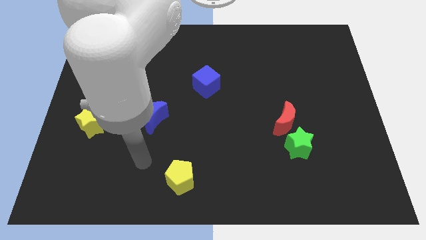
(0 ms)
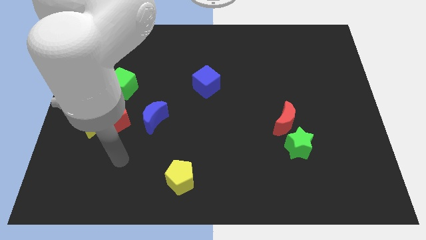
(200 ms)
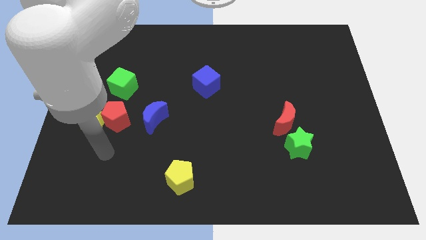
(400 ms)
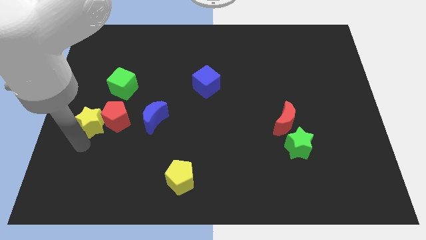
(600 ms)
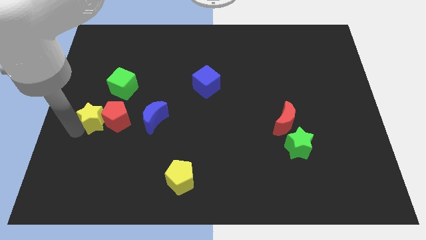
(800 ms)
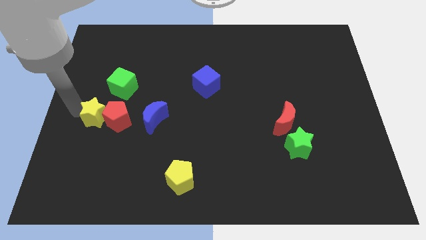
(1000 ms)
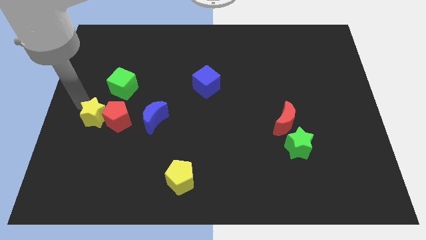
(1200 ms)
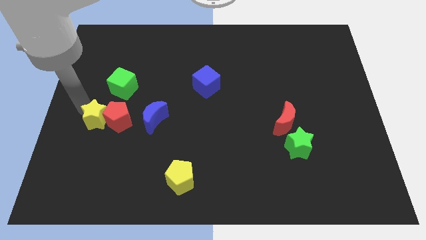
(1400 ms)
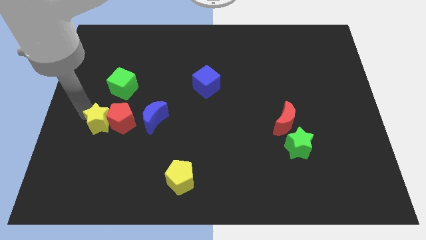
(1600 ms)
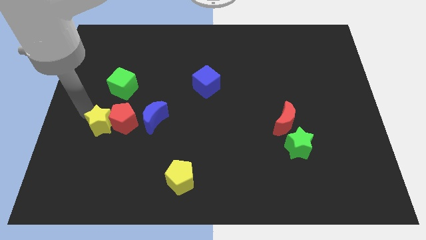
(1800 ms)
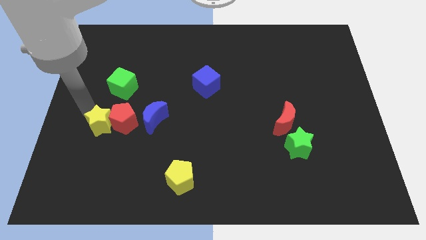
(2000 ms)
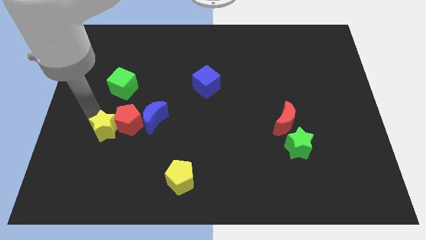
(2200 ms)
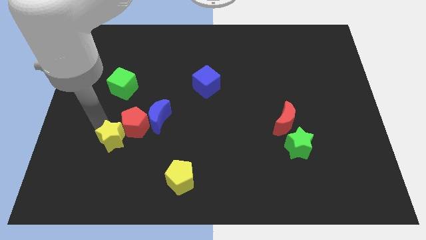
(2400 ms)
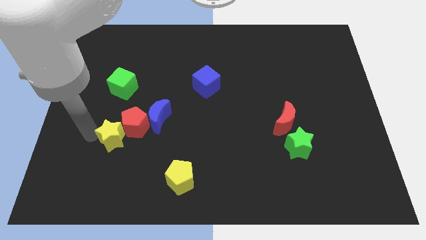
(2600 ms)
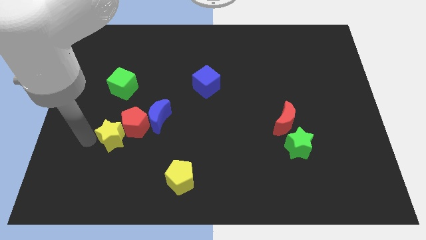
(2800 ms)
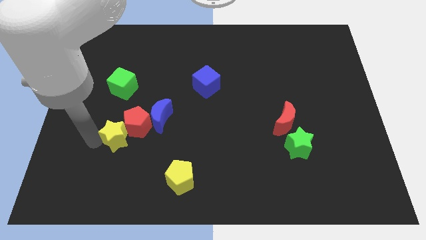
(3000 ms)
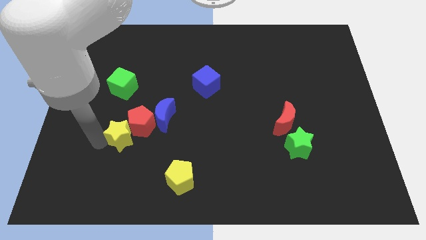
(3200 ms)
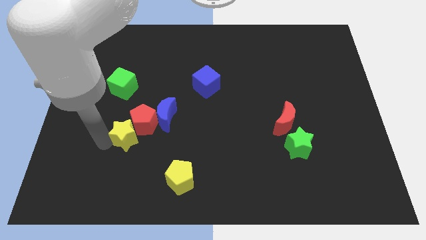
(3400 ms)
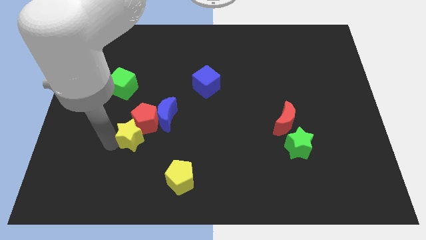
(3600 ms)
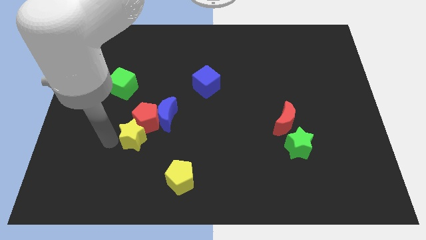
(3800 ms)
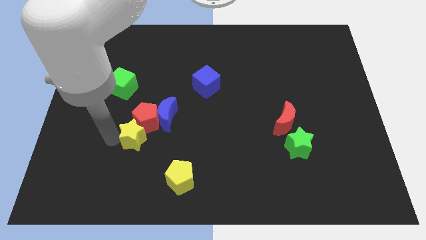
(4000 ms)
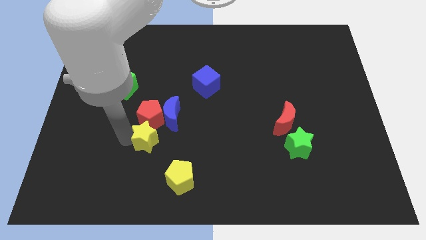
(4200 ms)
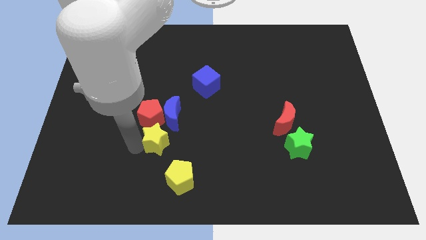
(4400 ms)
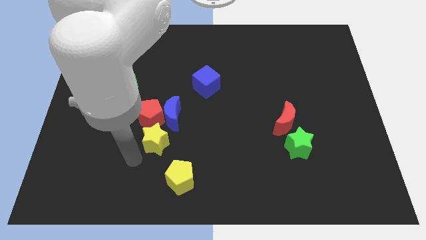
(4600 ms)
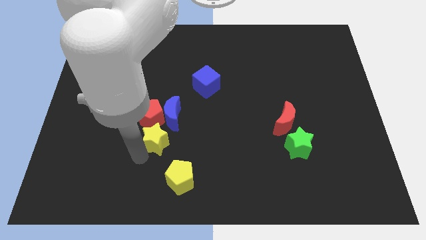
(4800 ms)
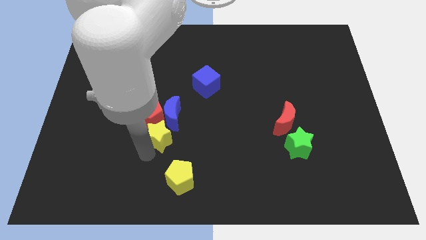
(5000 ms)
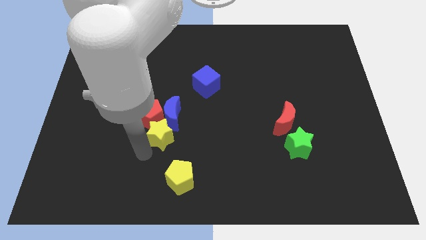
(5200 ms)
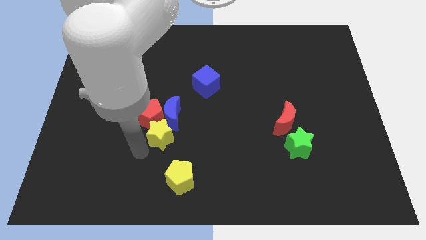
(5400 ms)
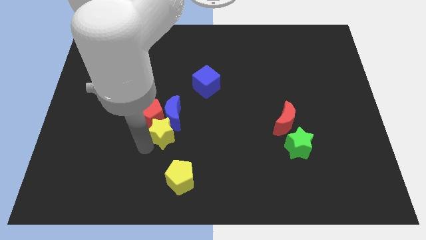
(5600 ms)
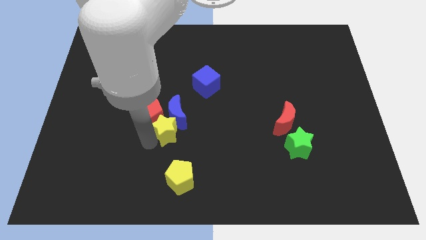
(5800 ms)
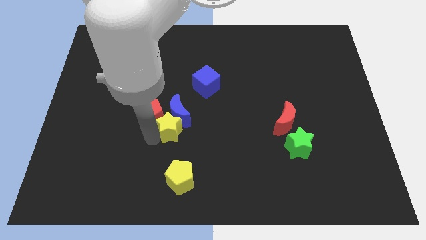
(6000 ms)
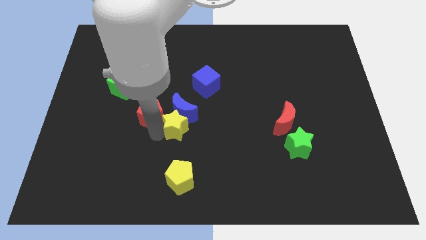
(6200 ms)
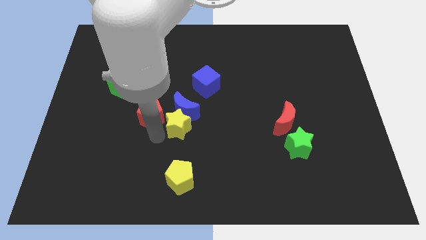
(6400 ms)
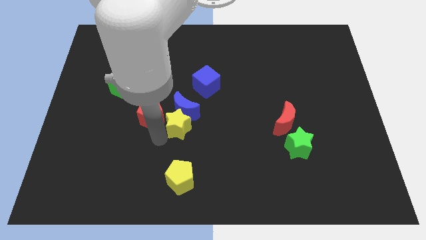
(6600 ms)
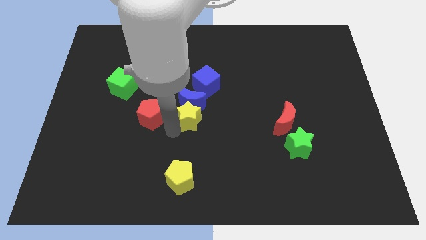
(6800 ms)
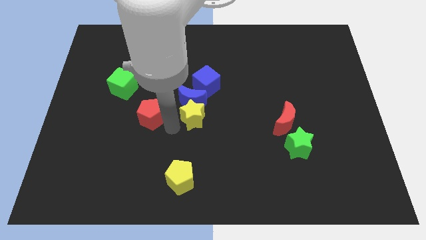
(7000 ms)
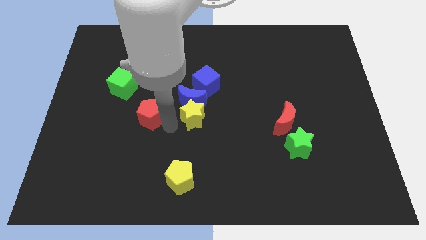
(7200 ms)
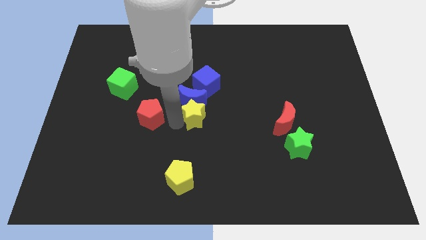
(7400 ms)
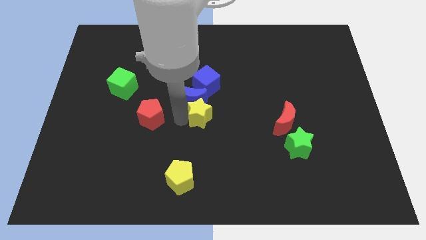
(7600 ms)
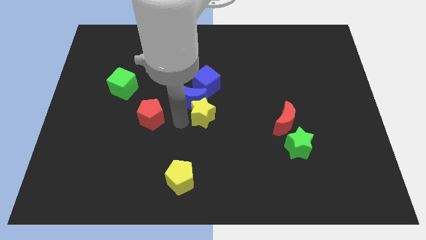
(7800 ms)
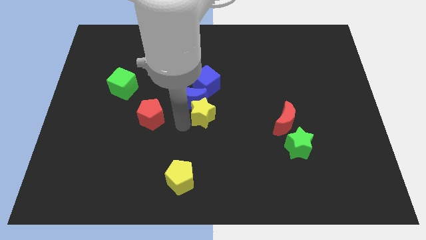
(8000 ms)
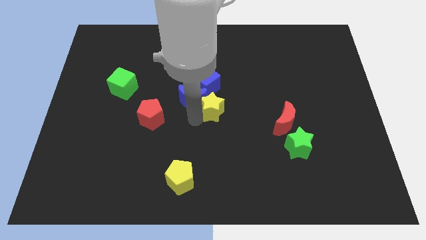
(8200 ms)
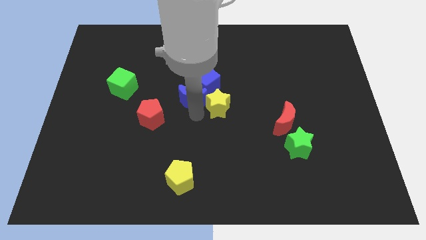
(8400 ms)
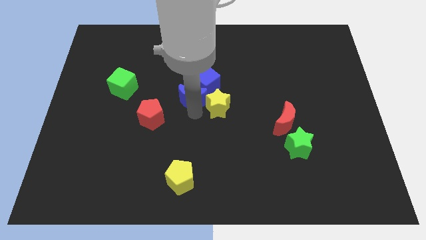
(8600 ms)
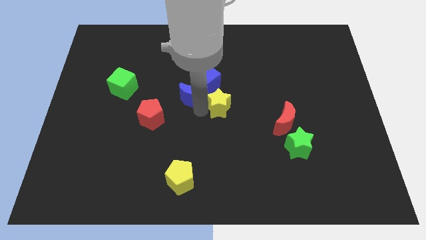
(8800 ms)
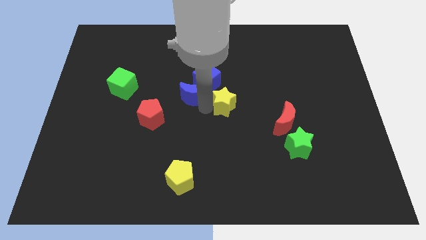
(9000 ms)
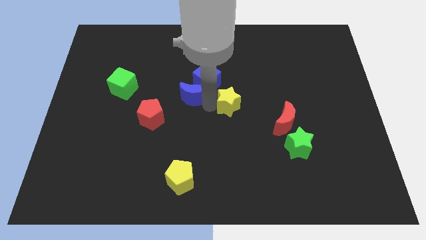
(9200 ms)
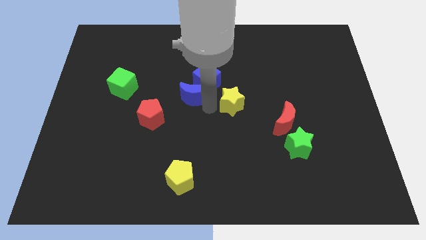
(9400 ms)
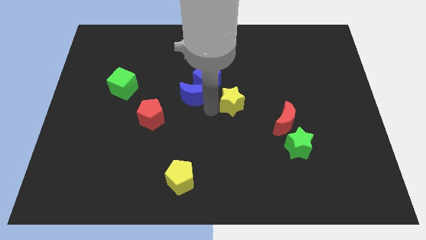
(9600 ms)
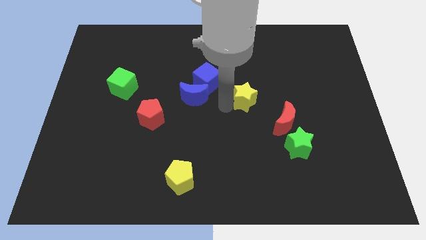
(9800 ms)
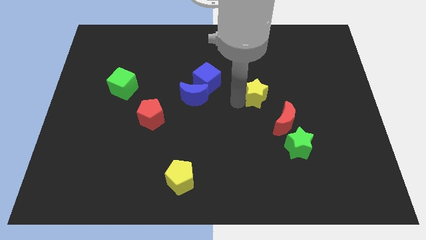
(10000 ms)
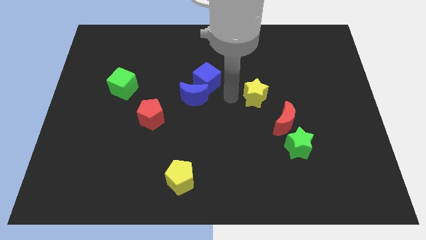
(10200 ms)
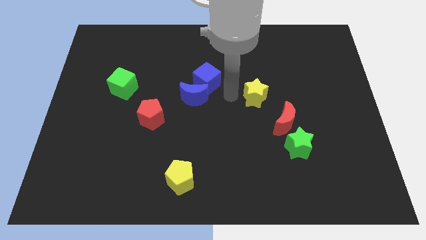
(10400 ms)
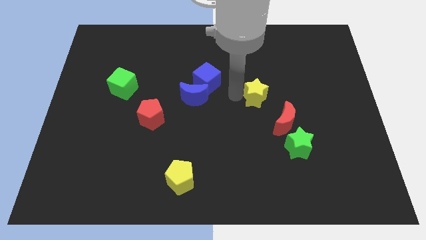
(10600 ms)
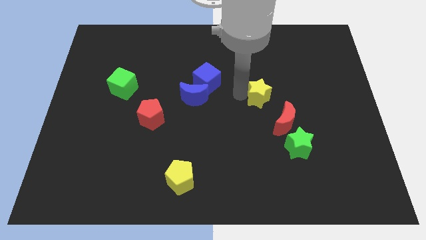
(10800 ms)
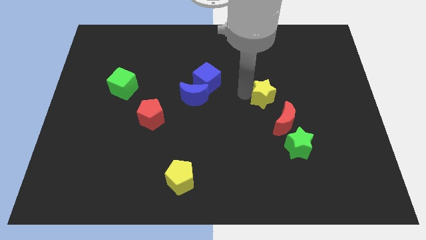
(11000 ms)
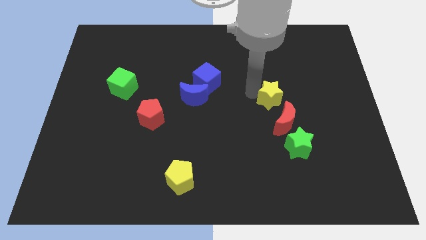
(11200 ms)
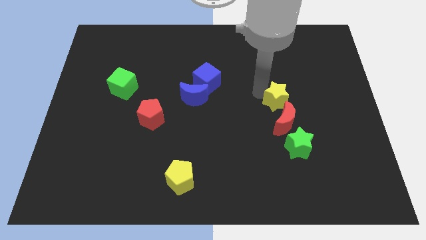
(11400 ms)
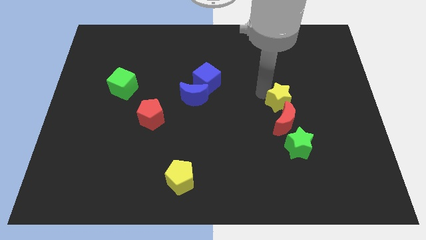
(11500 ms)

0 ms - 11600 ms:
move the yellow star to the top right side of the red moon
